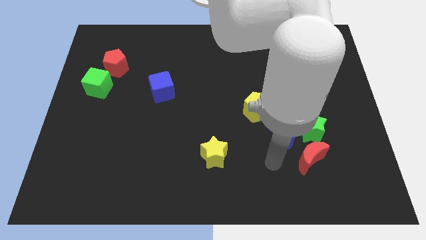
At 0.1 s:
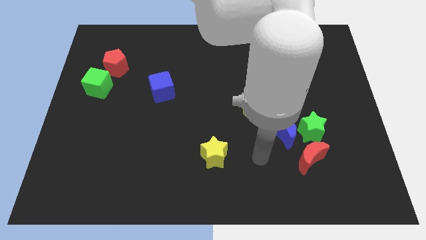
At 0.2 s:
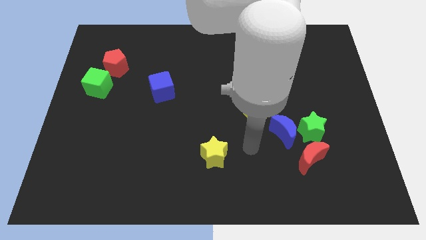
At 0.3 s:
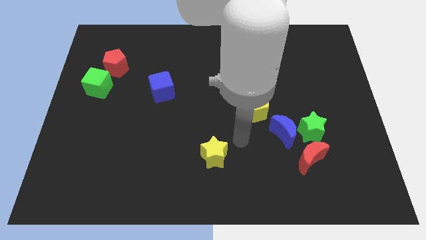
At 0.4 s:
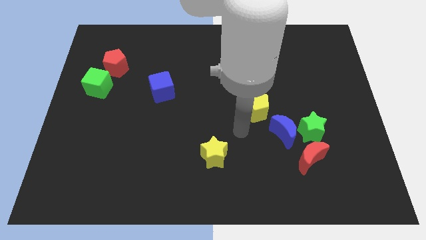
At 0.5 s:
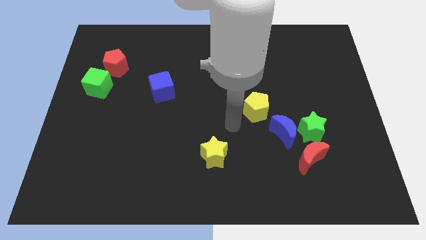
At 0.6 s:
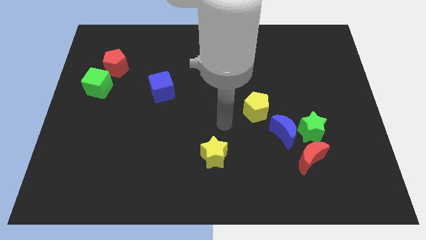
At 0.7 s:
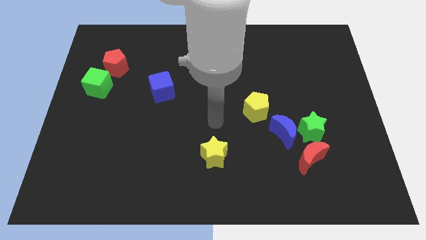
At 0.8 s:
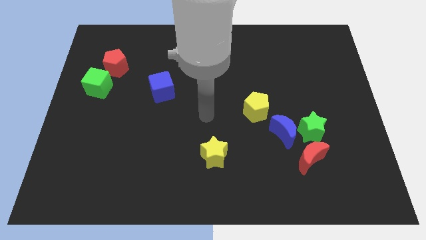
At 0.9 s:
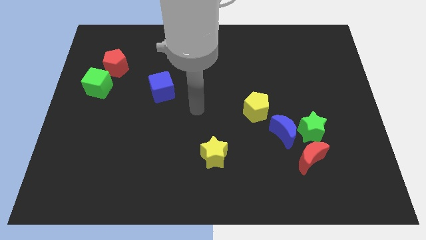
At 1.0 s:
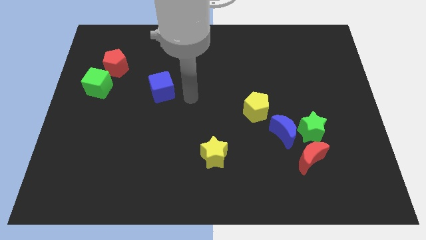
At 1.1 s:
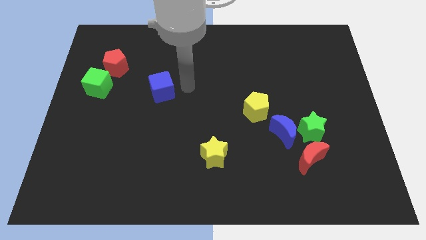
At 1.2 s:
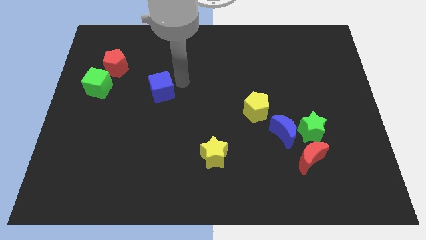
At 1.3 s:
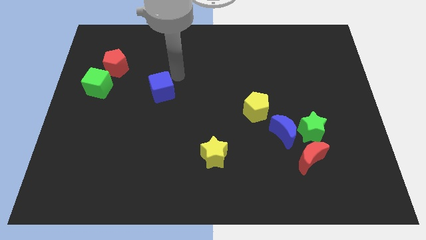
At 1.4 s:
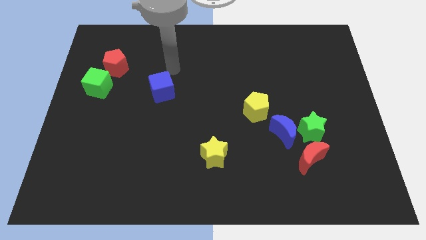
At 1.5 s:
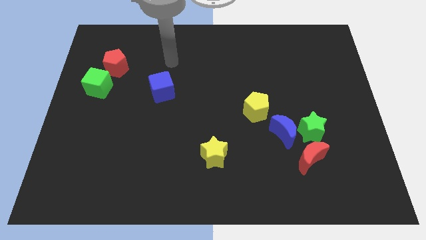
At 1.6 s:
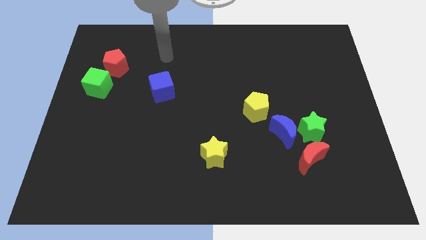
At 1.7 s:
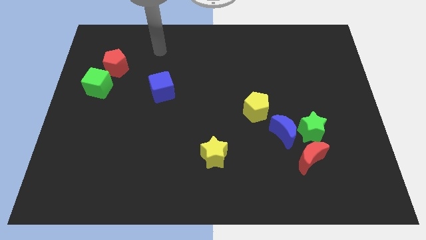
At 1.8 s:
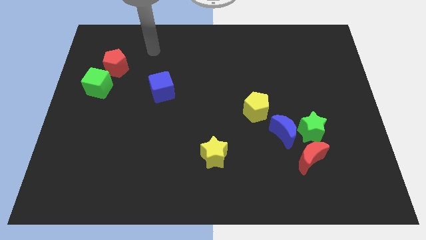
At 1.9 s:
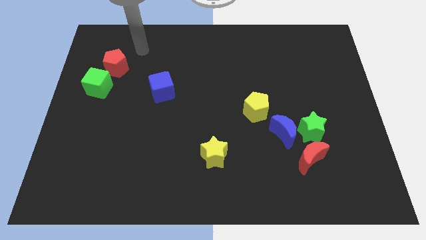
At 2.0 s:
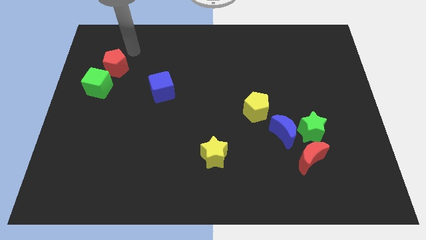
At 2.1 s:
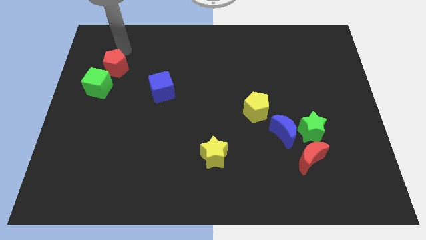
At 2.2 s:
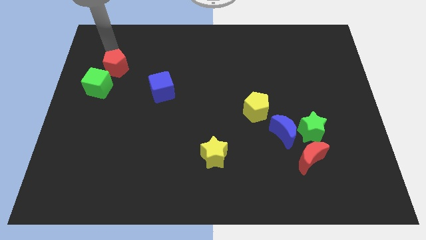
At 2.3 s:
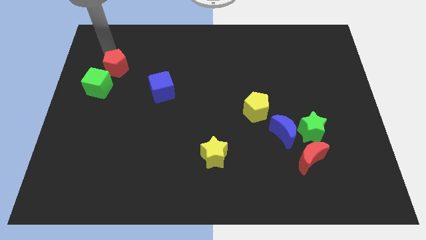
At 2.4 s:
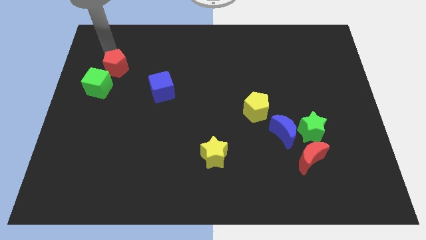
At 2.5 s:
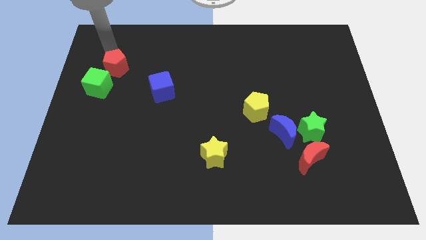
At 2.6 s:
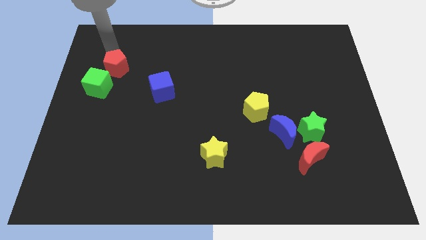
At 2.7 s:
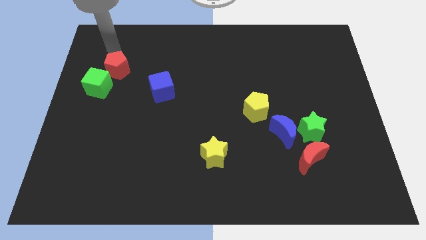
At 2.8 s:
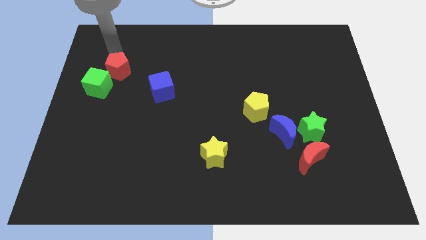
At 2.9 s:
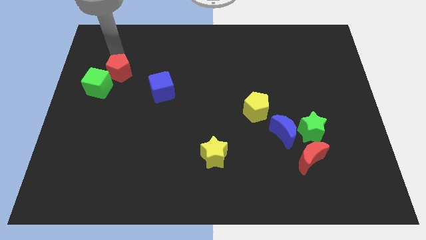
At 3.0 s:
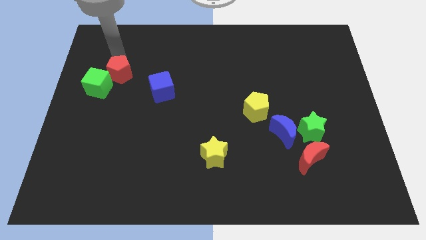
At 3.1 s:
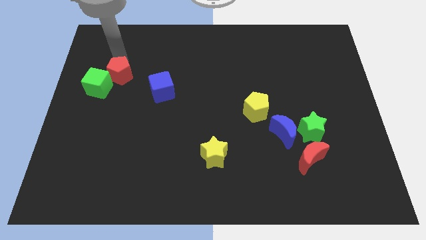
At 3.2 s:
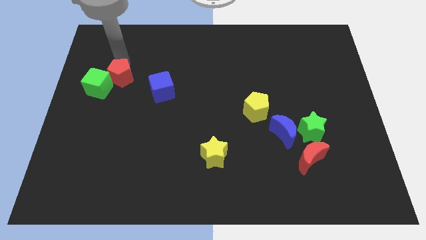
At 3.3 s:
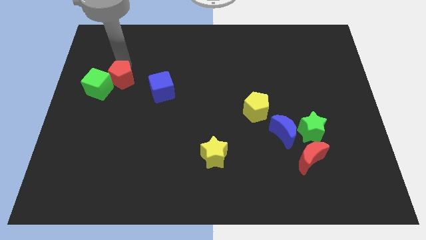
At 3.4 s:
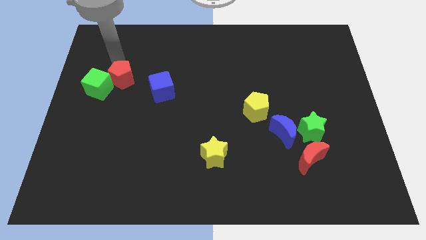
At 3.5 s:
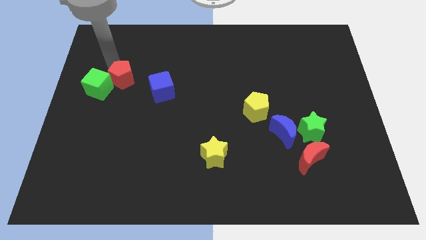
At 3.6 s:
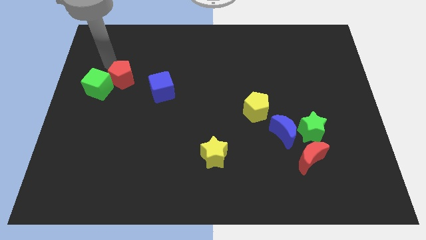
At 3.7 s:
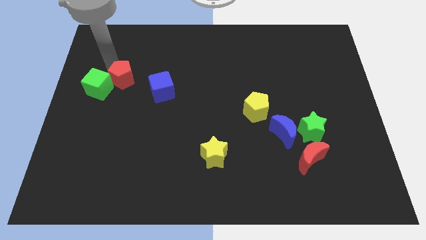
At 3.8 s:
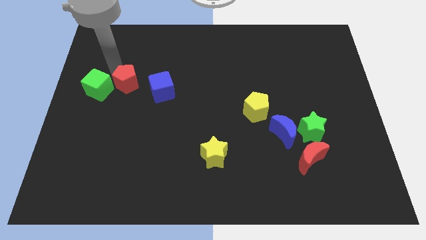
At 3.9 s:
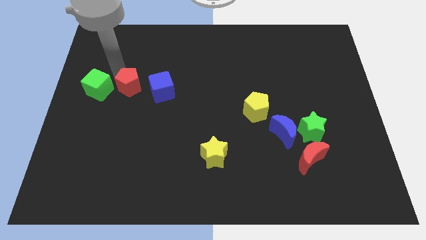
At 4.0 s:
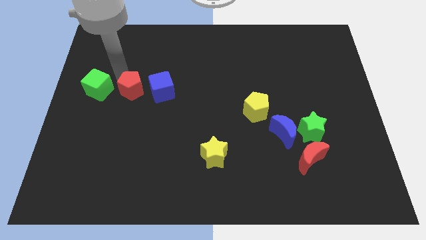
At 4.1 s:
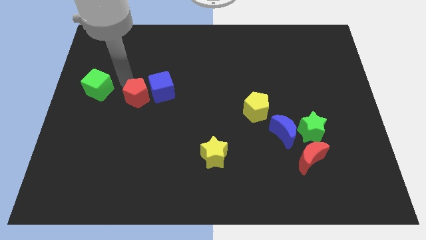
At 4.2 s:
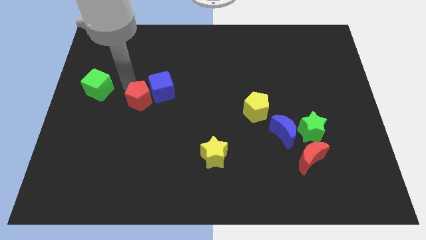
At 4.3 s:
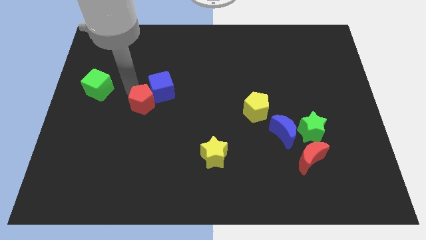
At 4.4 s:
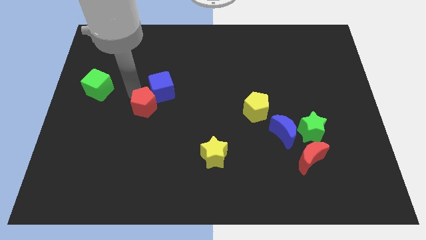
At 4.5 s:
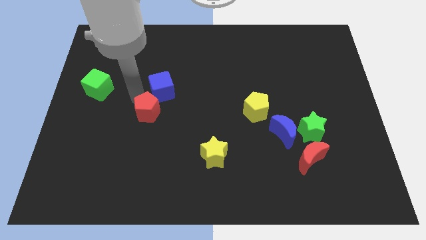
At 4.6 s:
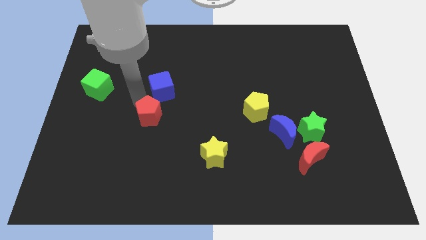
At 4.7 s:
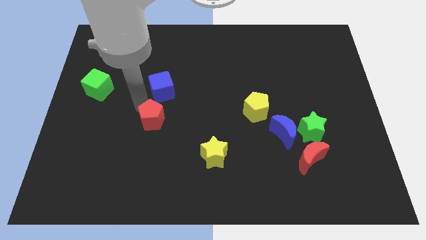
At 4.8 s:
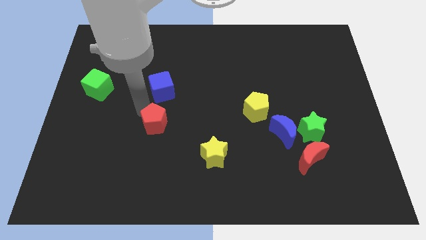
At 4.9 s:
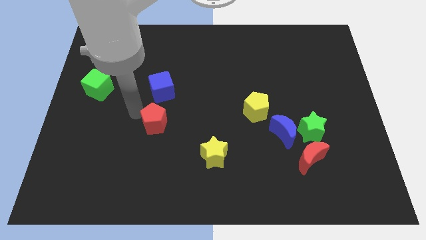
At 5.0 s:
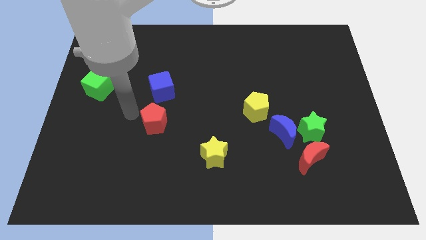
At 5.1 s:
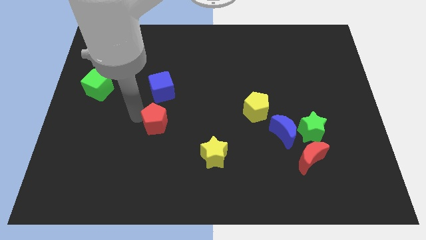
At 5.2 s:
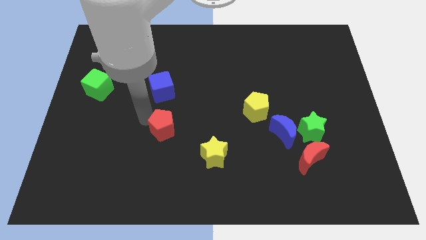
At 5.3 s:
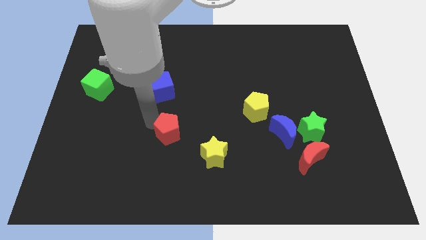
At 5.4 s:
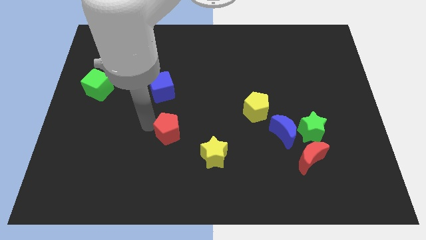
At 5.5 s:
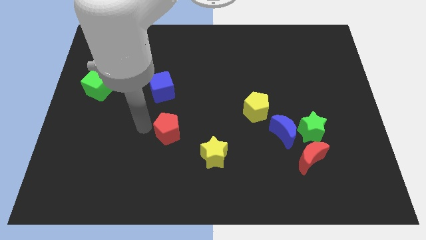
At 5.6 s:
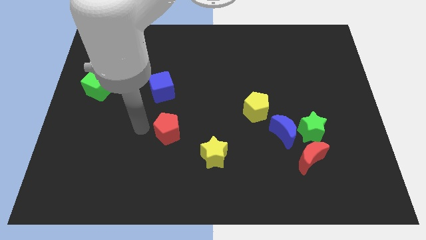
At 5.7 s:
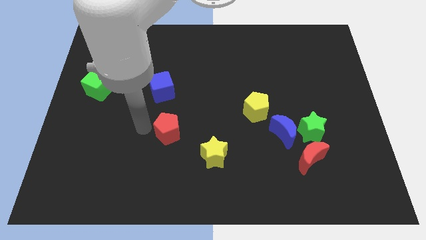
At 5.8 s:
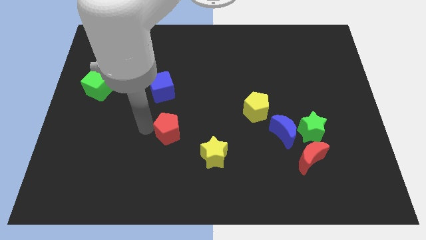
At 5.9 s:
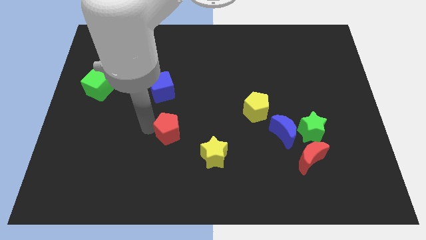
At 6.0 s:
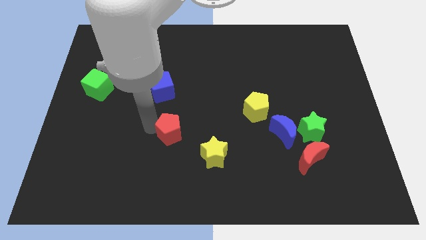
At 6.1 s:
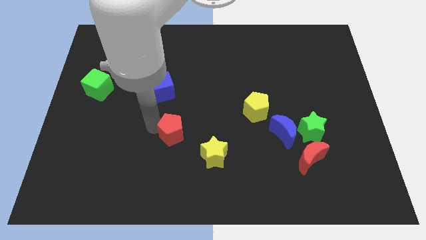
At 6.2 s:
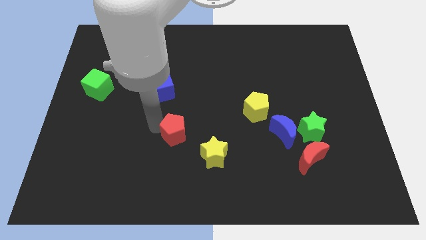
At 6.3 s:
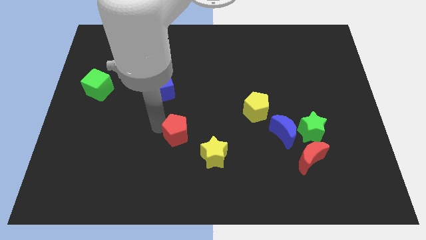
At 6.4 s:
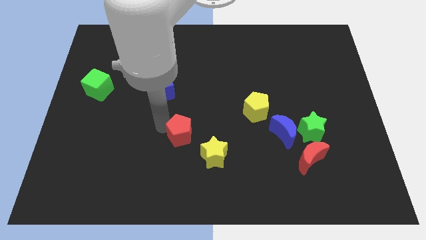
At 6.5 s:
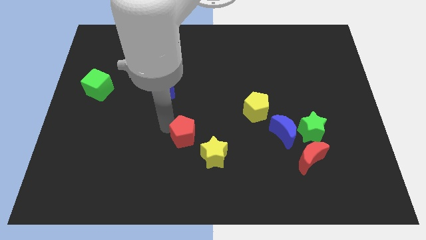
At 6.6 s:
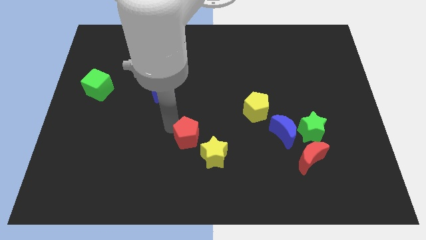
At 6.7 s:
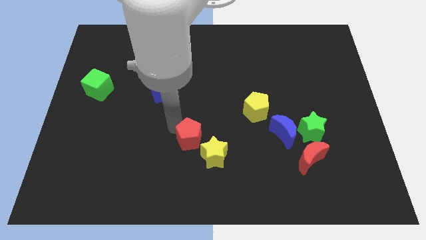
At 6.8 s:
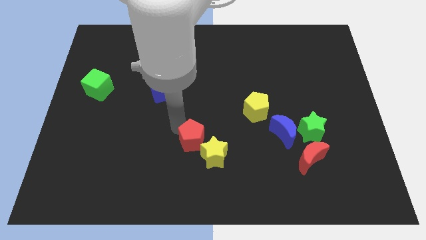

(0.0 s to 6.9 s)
put the red pentagon next to the yellow star
